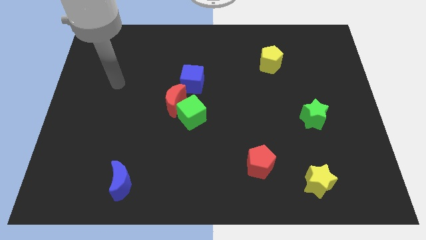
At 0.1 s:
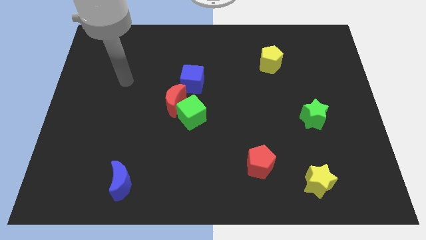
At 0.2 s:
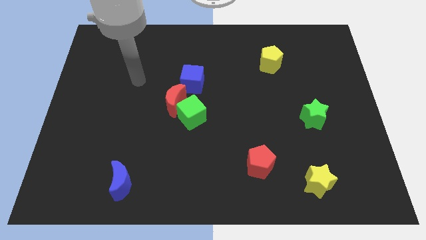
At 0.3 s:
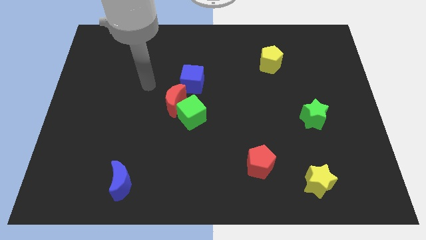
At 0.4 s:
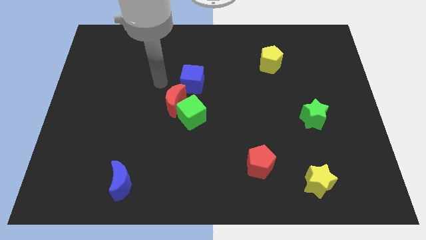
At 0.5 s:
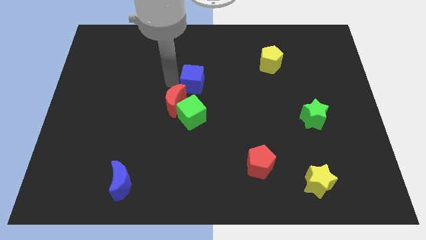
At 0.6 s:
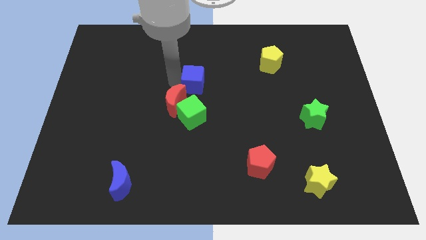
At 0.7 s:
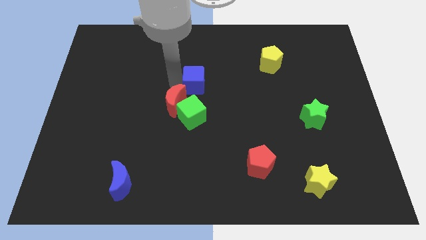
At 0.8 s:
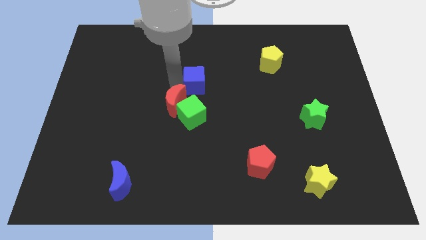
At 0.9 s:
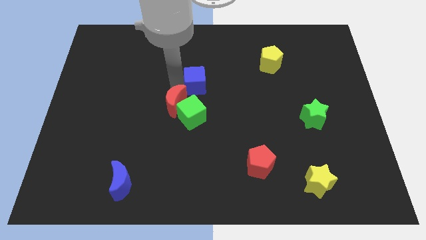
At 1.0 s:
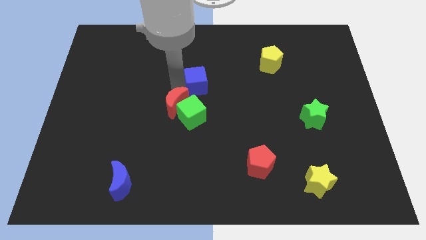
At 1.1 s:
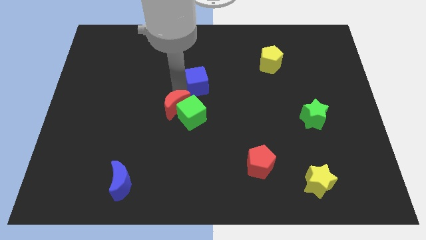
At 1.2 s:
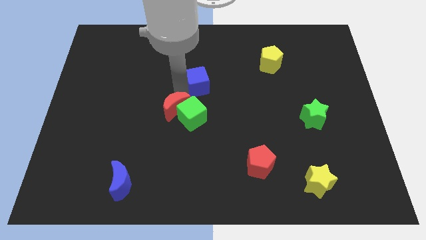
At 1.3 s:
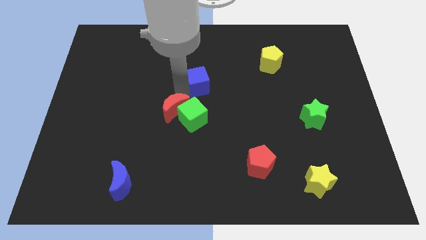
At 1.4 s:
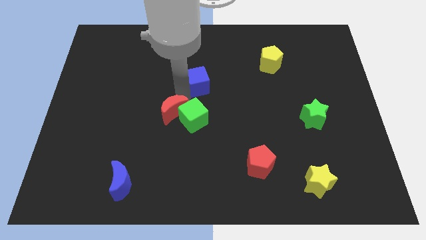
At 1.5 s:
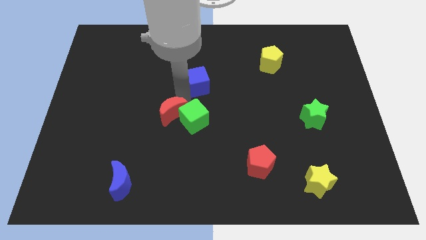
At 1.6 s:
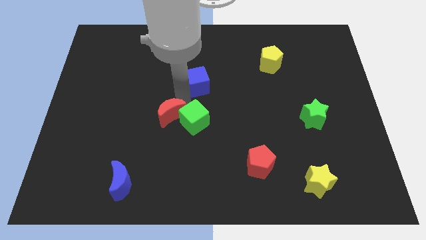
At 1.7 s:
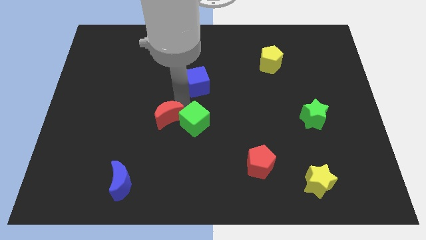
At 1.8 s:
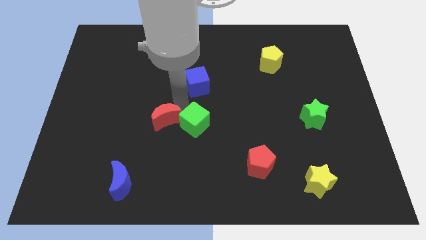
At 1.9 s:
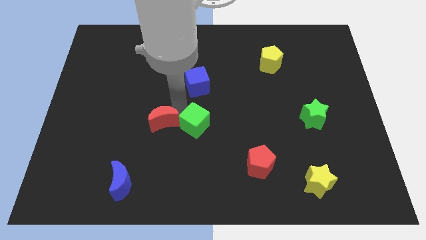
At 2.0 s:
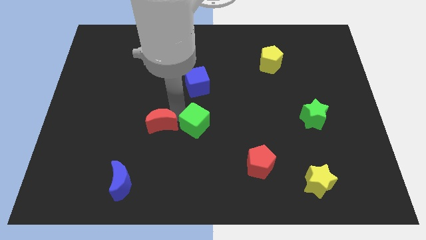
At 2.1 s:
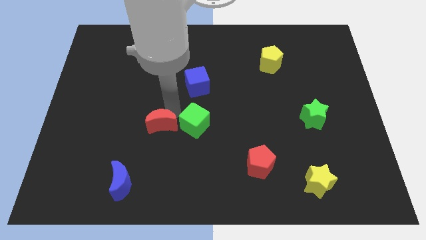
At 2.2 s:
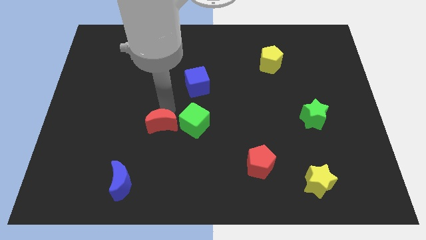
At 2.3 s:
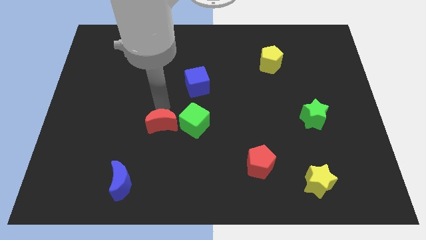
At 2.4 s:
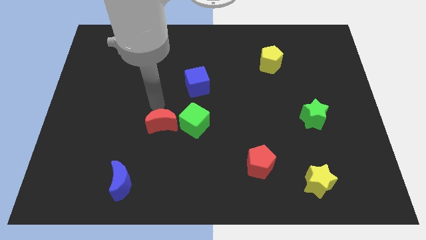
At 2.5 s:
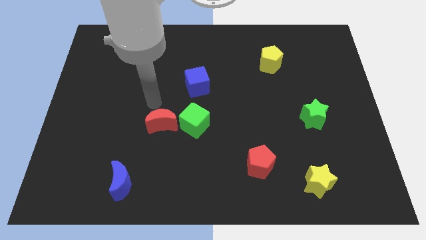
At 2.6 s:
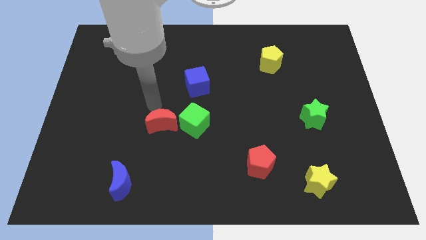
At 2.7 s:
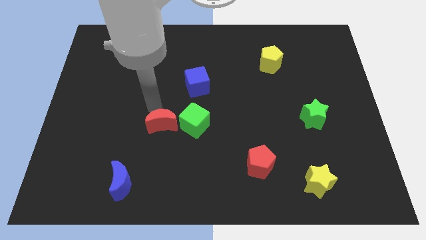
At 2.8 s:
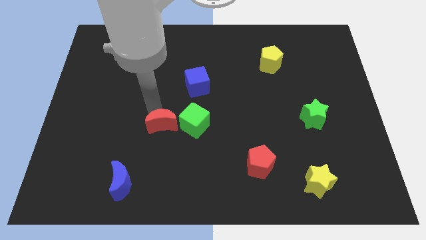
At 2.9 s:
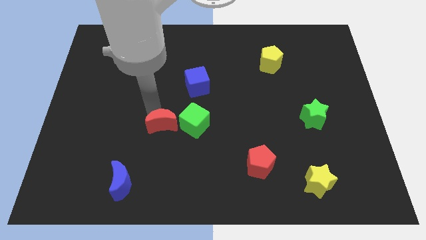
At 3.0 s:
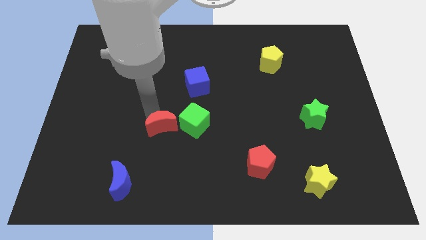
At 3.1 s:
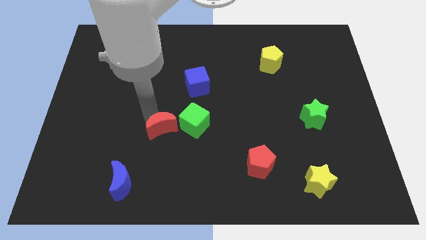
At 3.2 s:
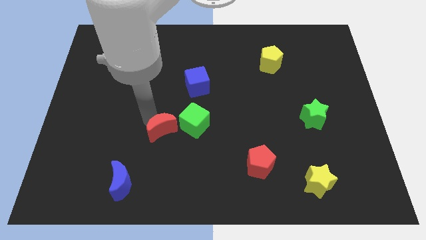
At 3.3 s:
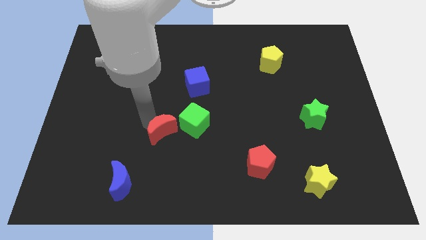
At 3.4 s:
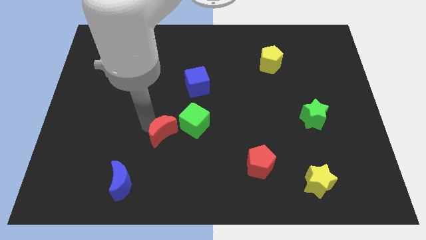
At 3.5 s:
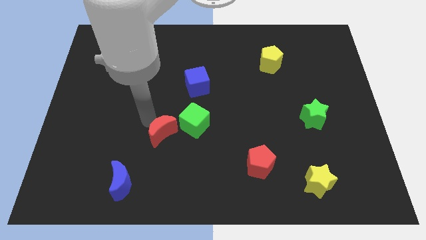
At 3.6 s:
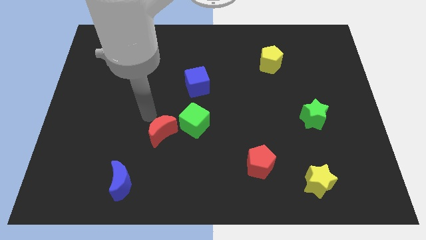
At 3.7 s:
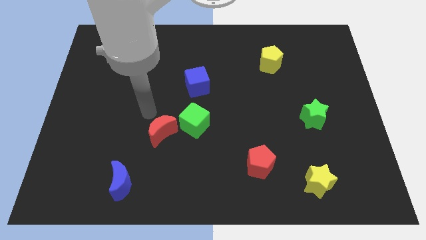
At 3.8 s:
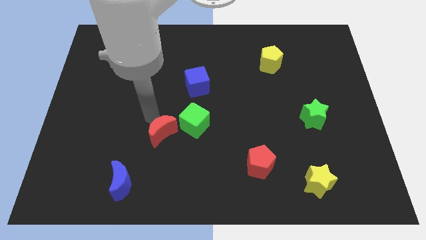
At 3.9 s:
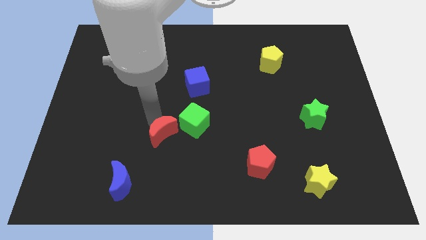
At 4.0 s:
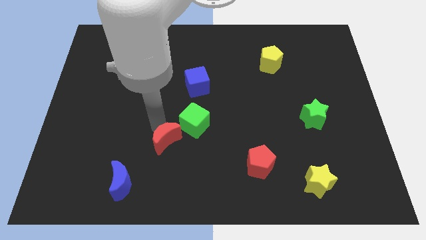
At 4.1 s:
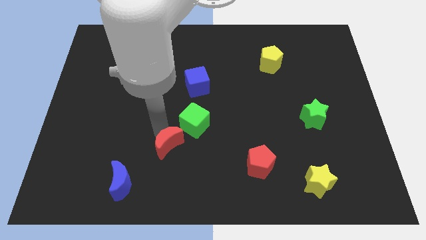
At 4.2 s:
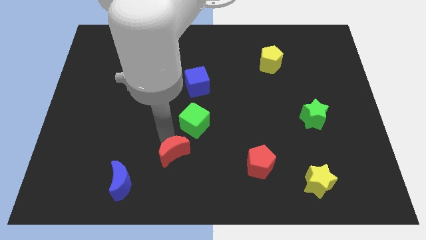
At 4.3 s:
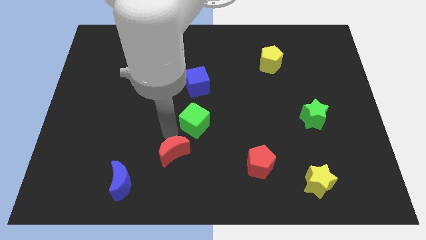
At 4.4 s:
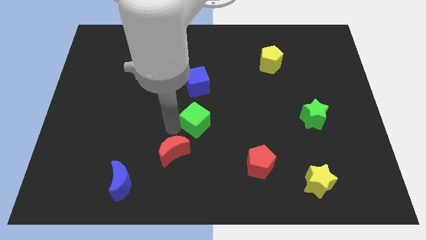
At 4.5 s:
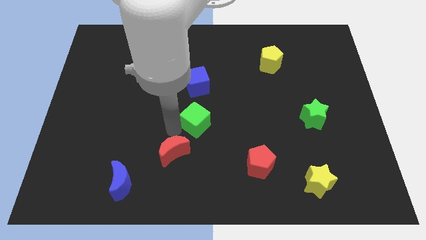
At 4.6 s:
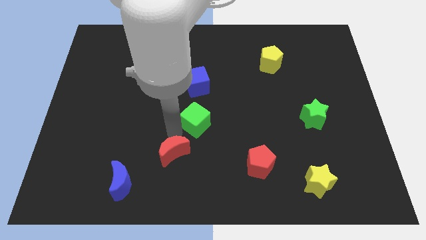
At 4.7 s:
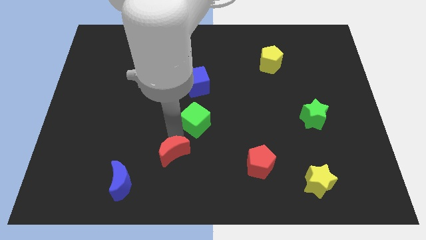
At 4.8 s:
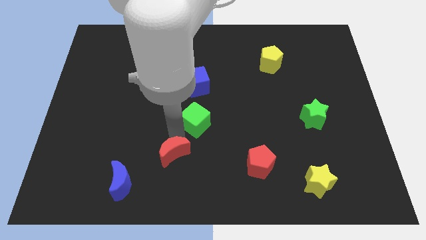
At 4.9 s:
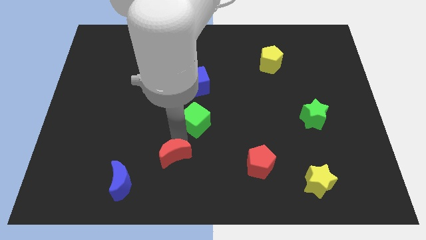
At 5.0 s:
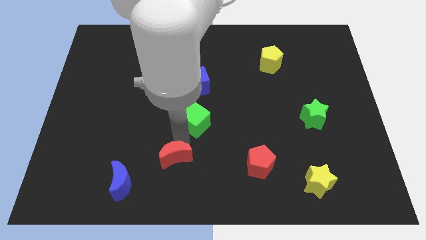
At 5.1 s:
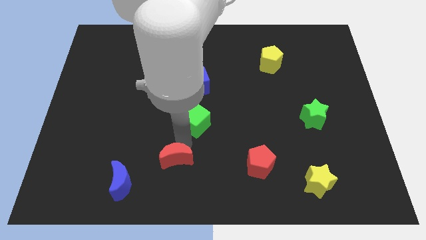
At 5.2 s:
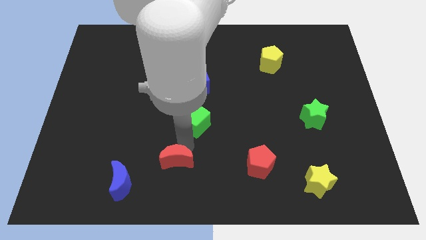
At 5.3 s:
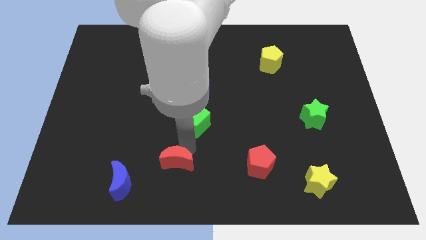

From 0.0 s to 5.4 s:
move the red moon to the right side of the blue moon
